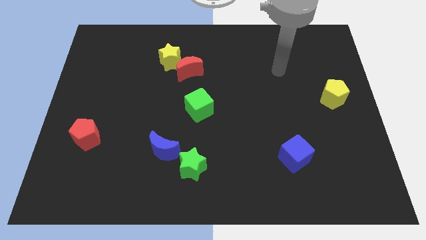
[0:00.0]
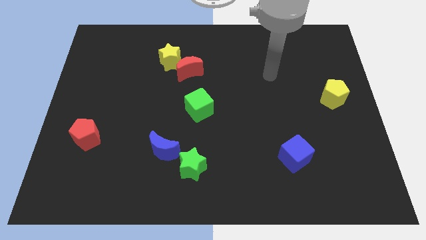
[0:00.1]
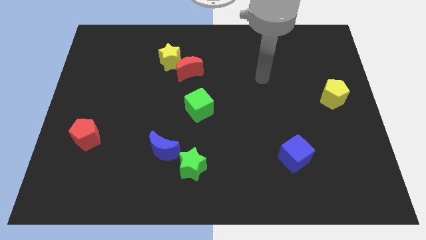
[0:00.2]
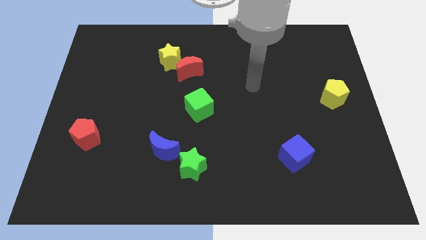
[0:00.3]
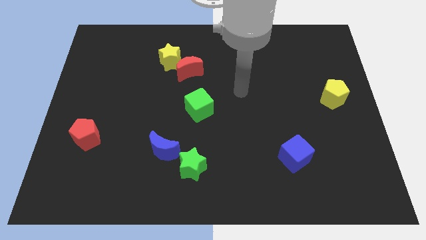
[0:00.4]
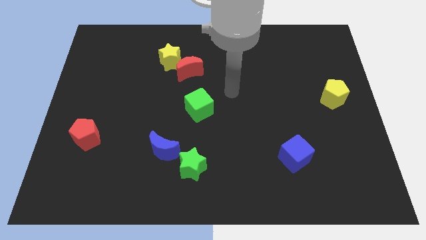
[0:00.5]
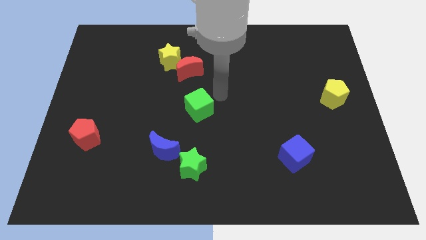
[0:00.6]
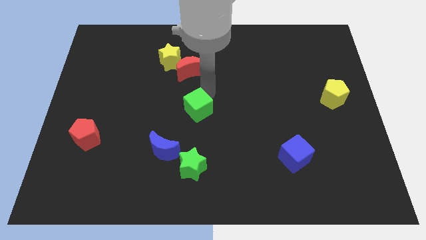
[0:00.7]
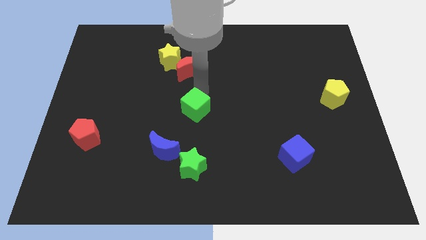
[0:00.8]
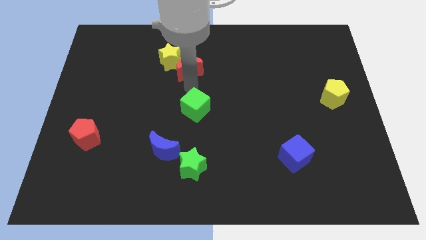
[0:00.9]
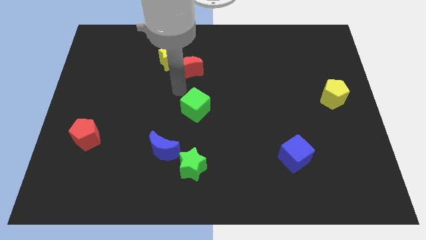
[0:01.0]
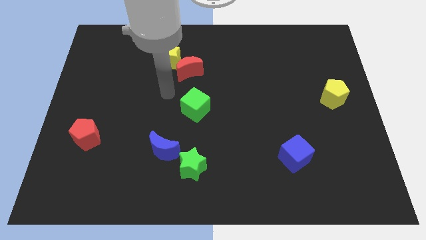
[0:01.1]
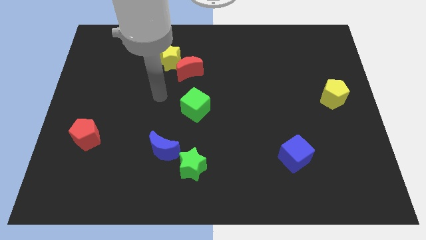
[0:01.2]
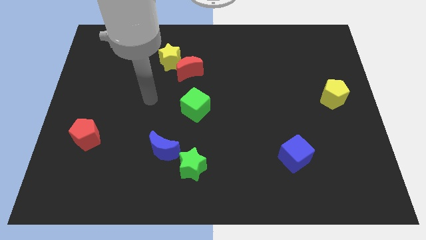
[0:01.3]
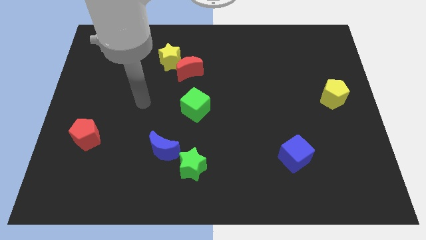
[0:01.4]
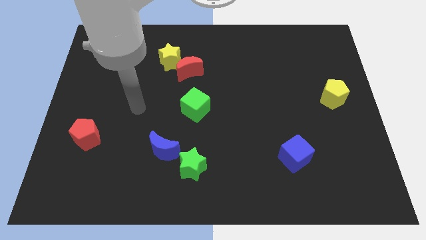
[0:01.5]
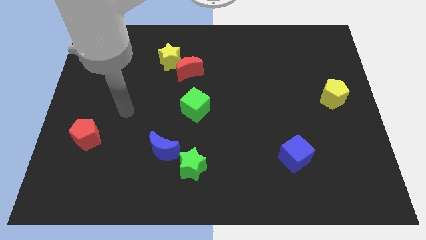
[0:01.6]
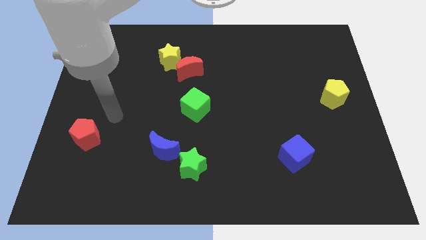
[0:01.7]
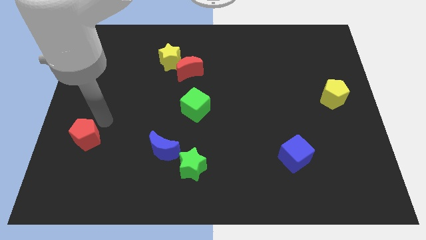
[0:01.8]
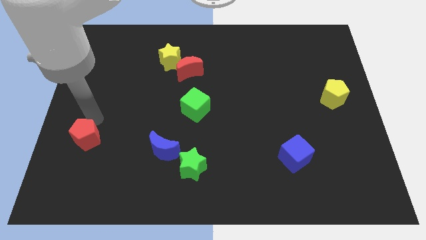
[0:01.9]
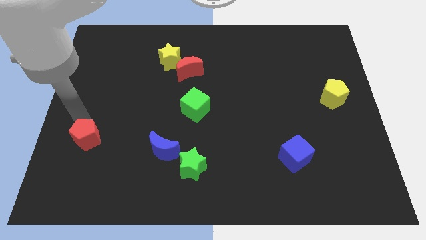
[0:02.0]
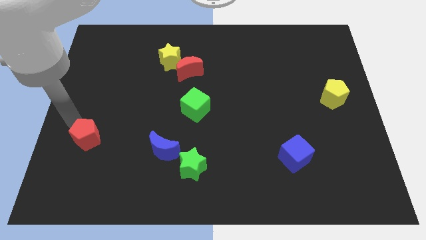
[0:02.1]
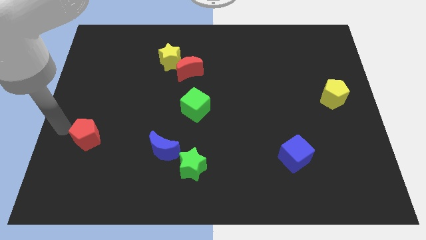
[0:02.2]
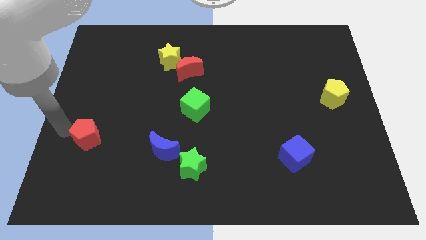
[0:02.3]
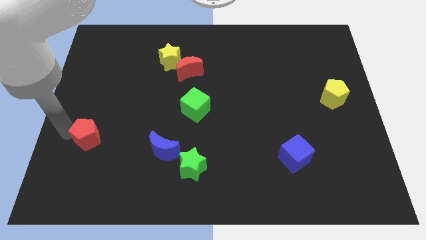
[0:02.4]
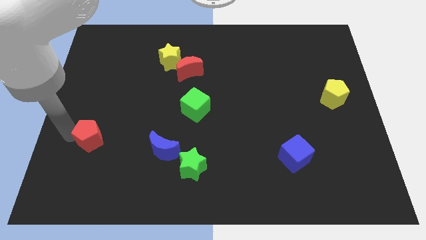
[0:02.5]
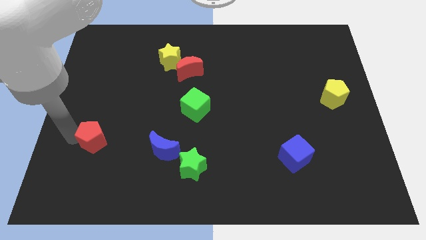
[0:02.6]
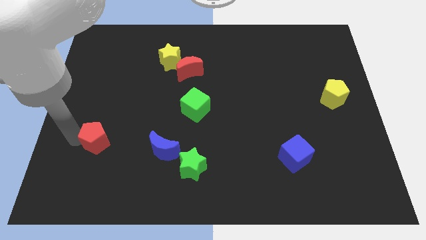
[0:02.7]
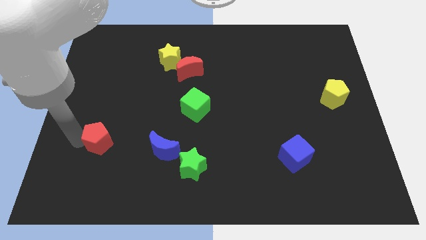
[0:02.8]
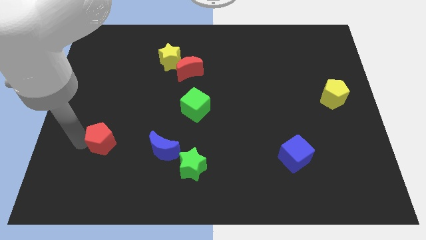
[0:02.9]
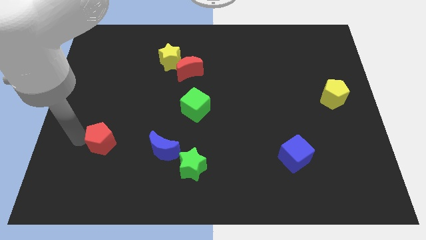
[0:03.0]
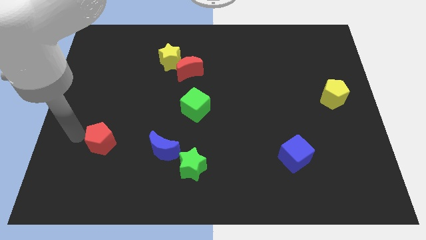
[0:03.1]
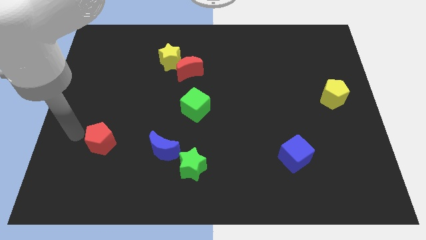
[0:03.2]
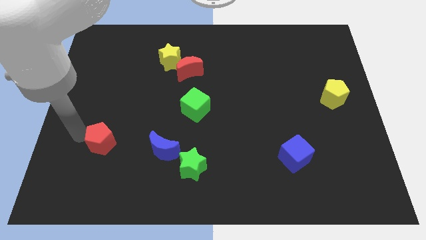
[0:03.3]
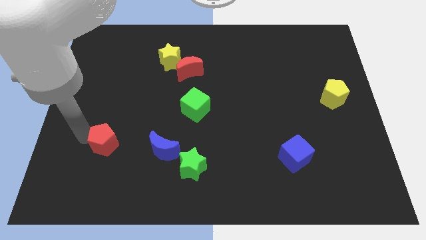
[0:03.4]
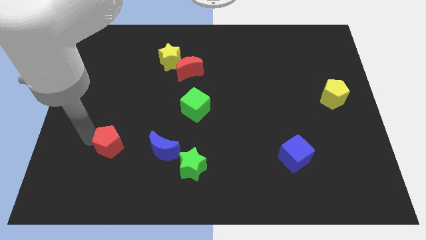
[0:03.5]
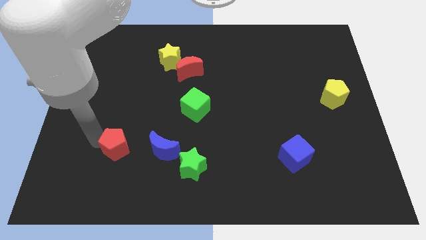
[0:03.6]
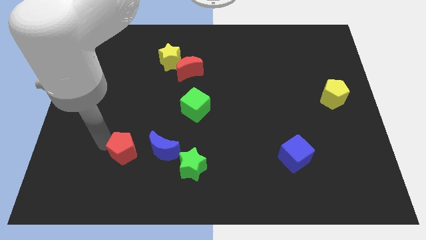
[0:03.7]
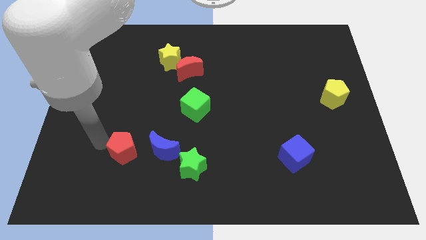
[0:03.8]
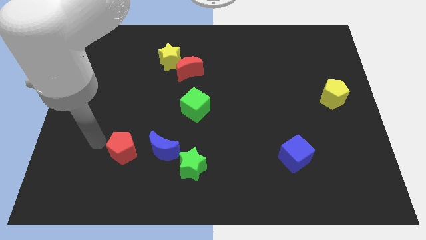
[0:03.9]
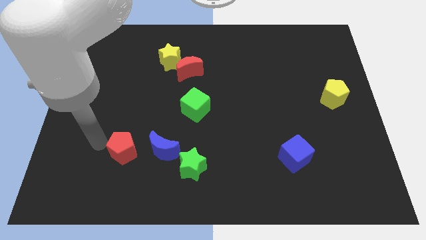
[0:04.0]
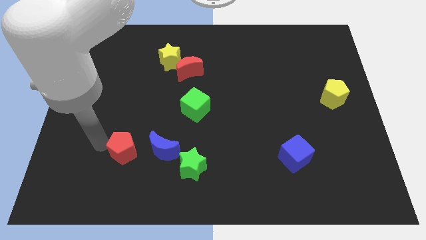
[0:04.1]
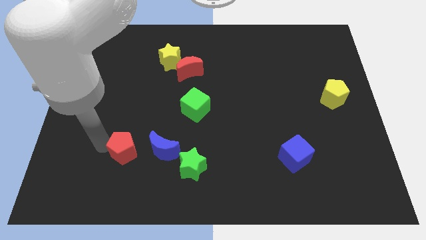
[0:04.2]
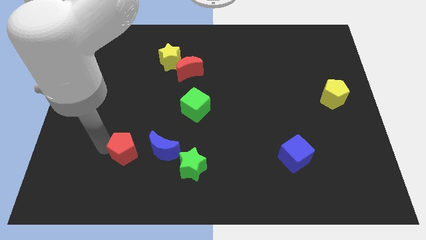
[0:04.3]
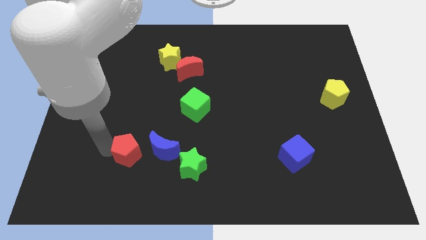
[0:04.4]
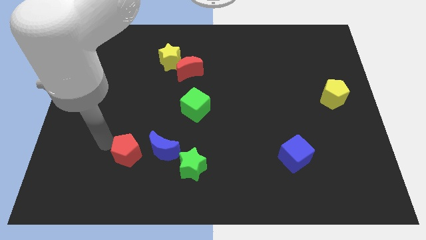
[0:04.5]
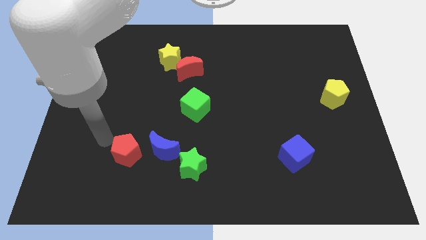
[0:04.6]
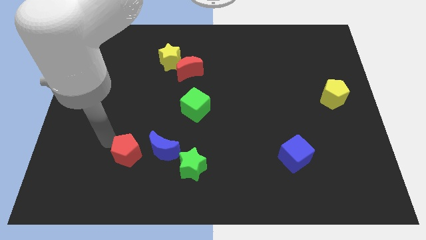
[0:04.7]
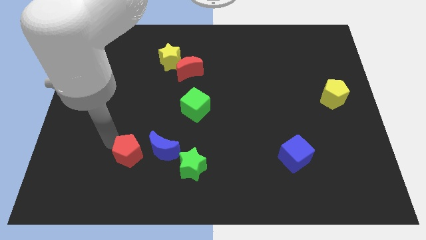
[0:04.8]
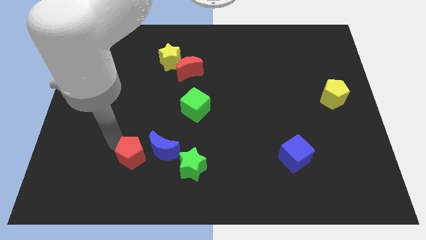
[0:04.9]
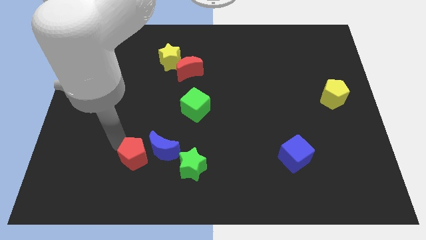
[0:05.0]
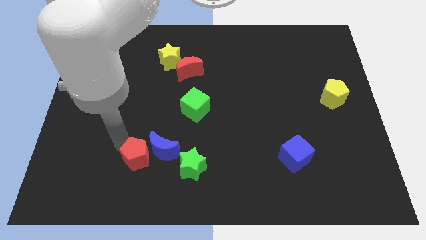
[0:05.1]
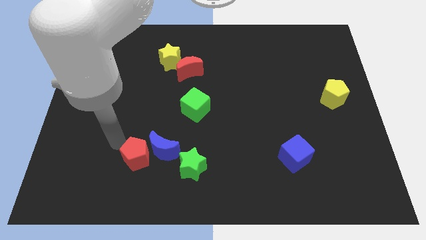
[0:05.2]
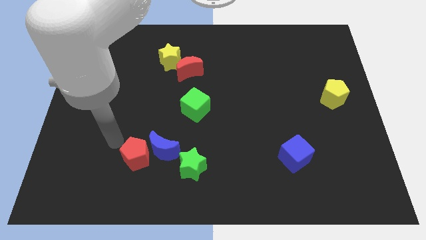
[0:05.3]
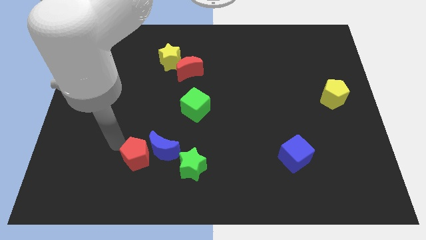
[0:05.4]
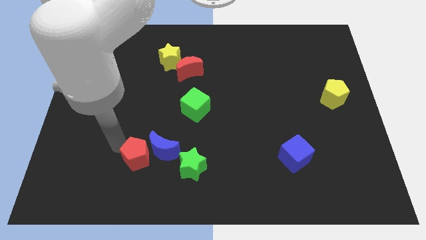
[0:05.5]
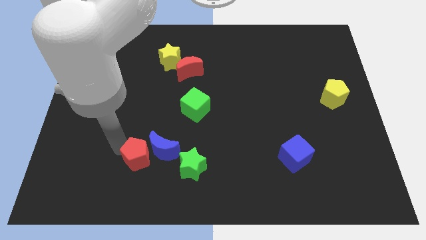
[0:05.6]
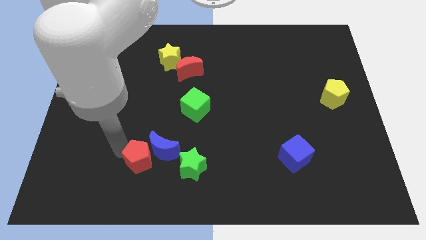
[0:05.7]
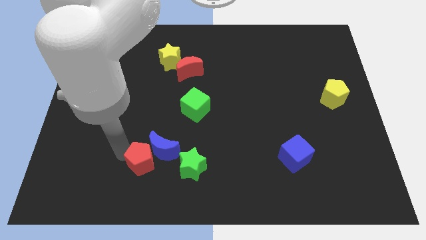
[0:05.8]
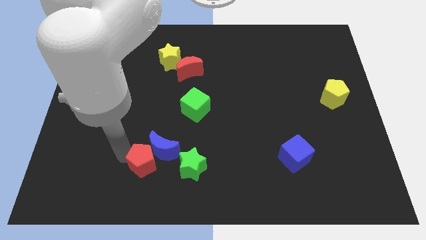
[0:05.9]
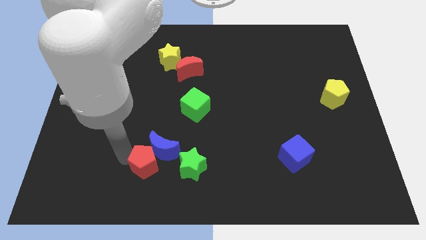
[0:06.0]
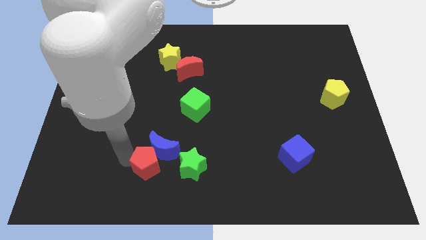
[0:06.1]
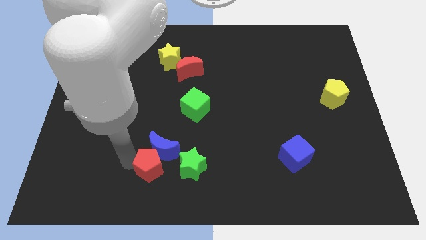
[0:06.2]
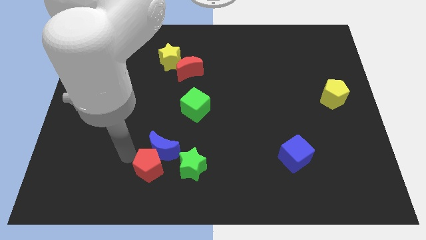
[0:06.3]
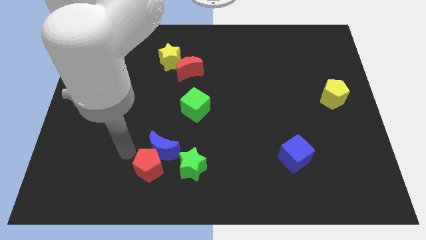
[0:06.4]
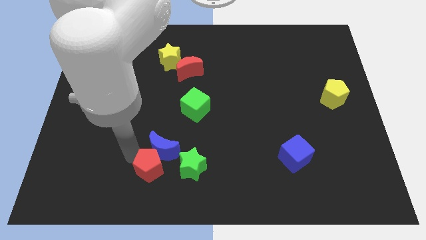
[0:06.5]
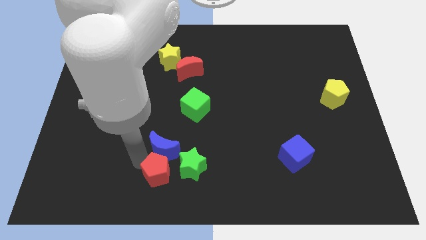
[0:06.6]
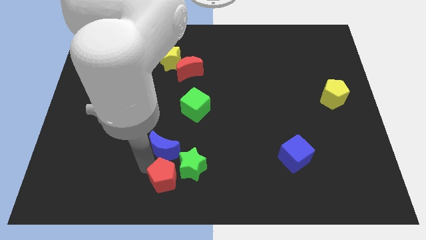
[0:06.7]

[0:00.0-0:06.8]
put the red pentagon to the bottom side

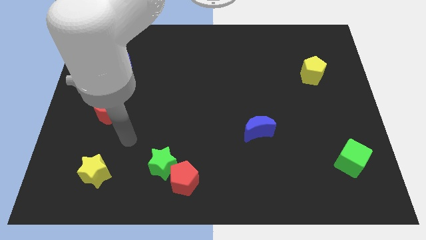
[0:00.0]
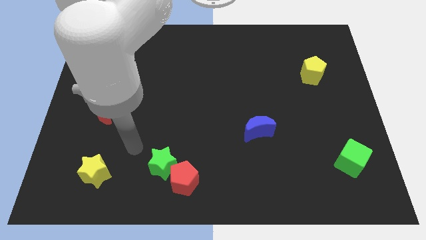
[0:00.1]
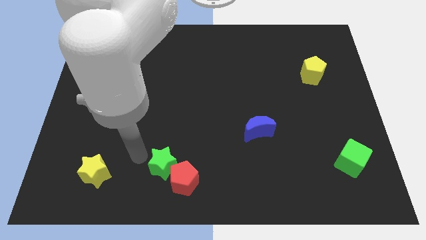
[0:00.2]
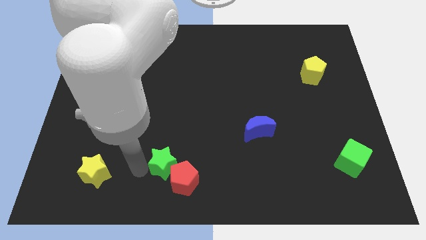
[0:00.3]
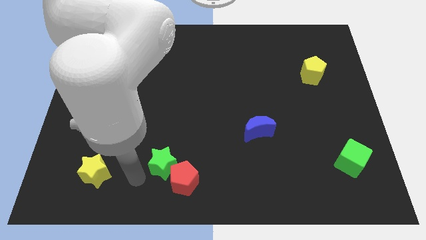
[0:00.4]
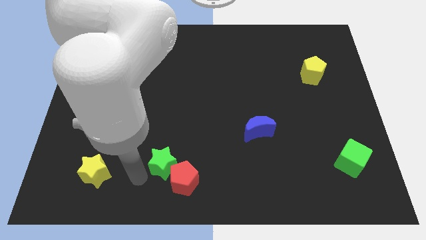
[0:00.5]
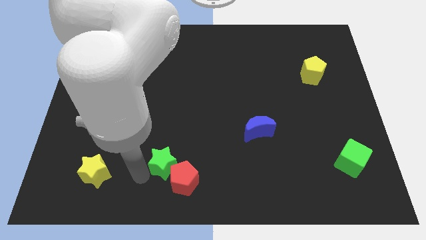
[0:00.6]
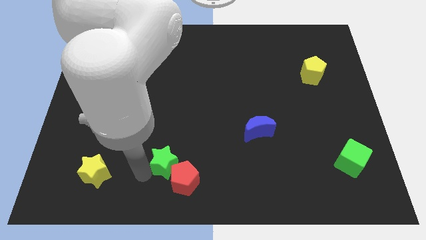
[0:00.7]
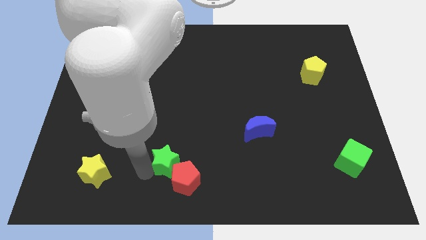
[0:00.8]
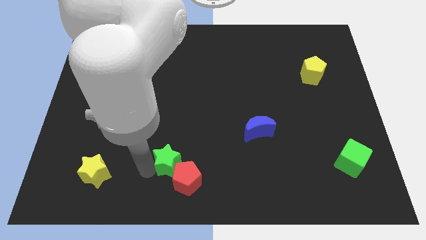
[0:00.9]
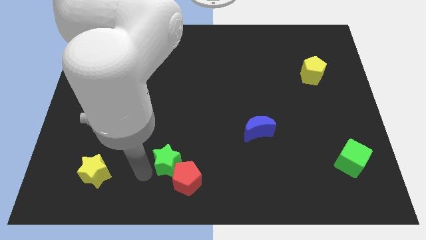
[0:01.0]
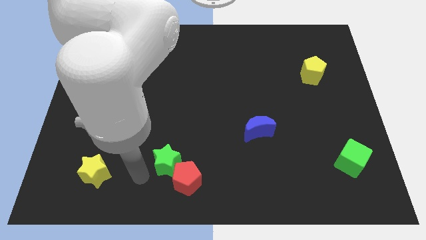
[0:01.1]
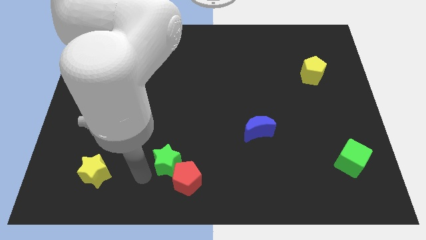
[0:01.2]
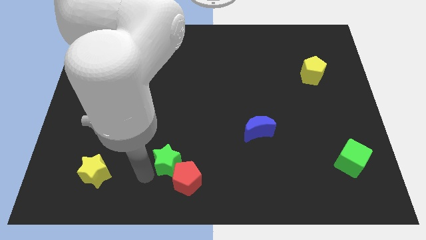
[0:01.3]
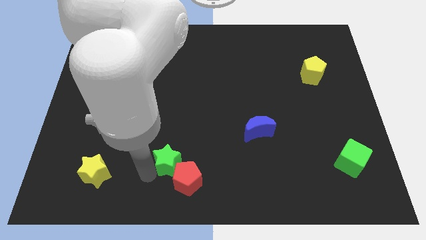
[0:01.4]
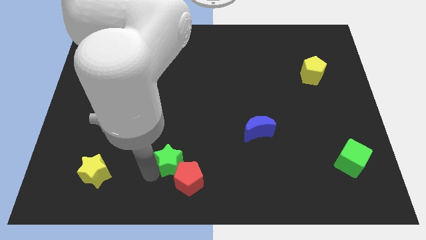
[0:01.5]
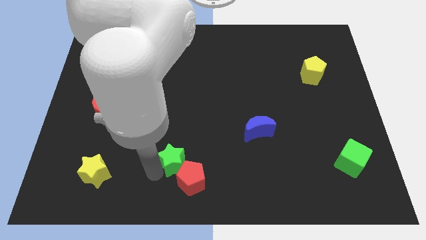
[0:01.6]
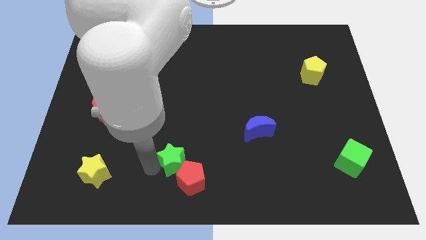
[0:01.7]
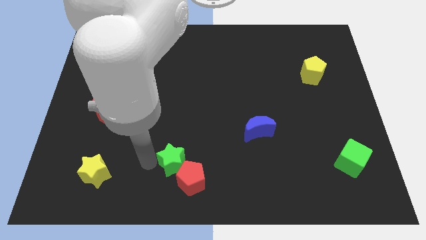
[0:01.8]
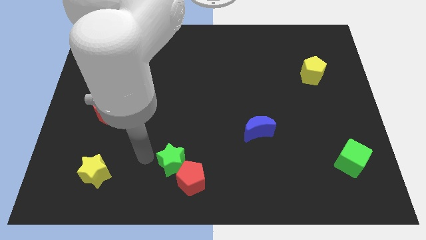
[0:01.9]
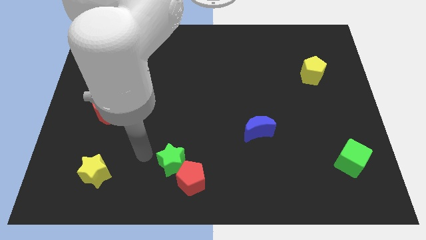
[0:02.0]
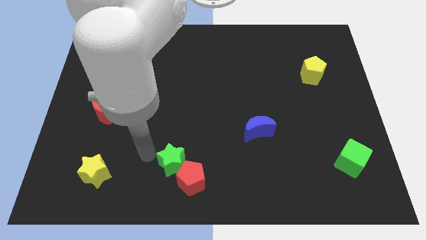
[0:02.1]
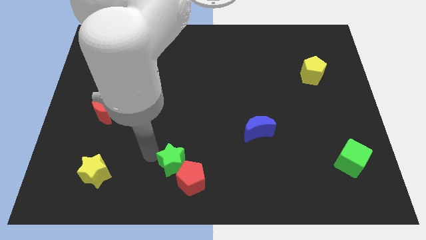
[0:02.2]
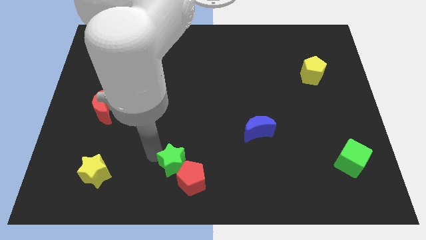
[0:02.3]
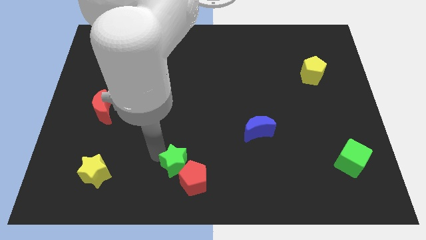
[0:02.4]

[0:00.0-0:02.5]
slide the green star to the bottom side
